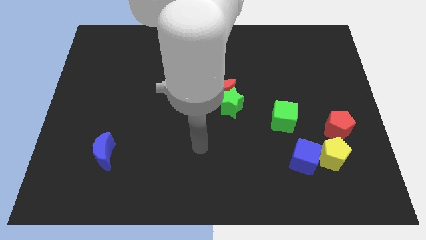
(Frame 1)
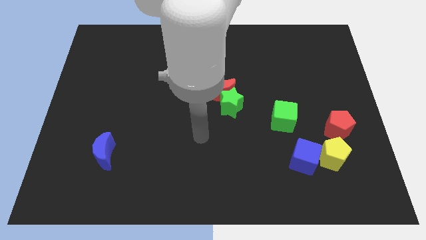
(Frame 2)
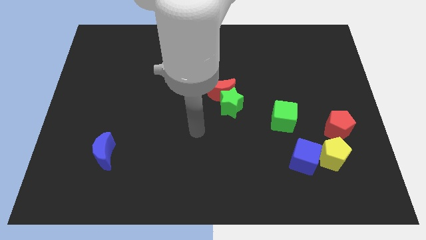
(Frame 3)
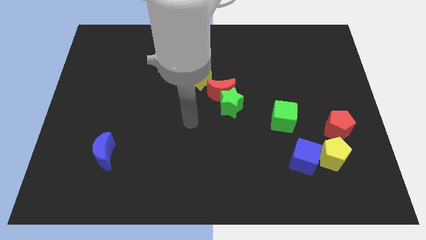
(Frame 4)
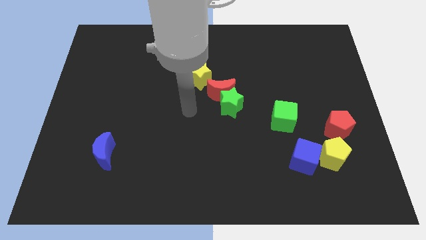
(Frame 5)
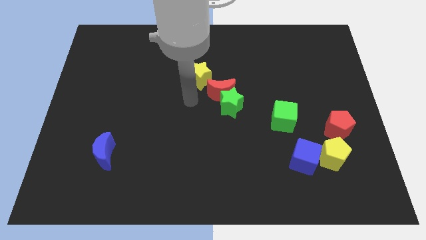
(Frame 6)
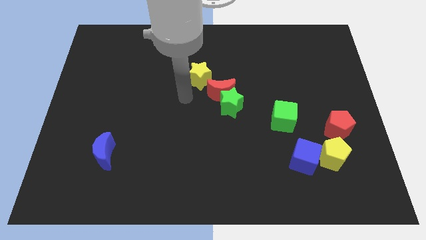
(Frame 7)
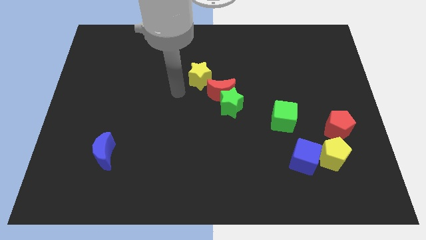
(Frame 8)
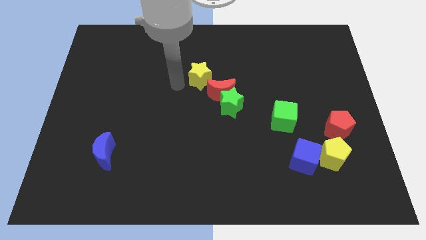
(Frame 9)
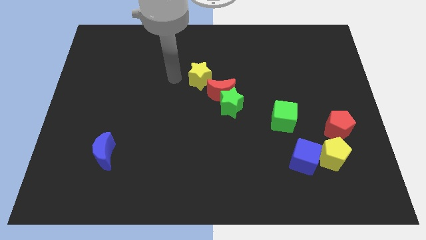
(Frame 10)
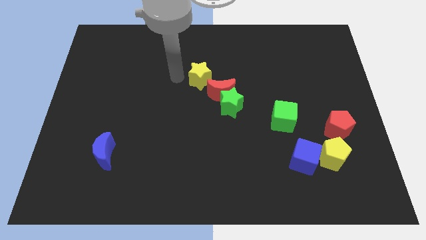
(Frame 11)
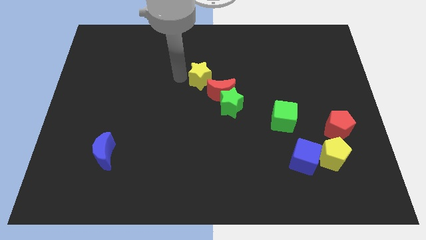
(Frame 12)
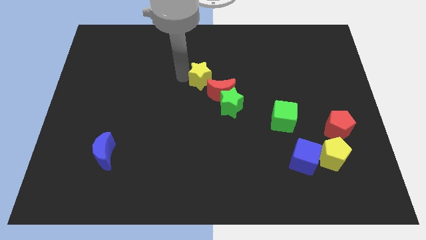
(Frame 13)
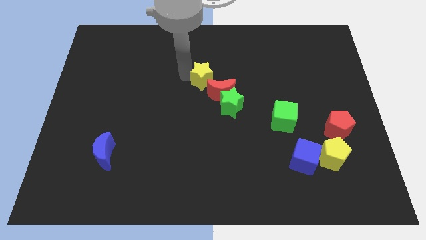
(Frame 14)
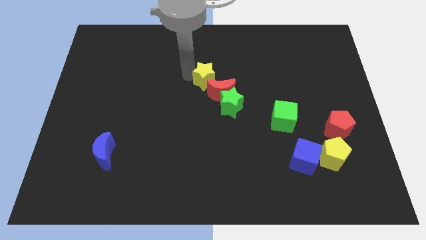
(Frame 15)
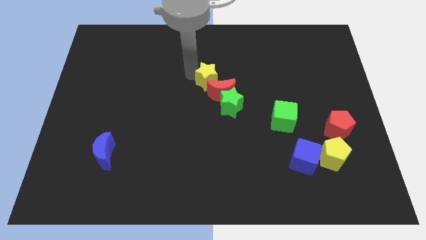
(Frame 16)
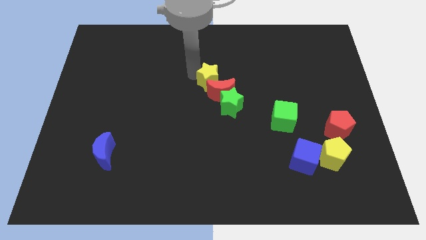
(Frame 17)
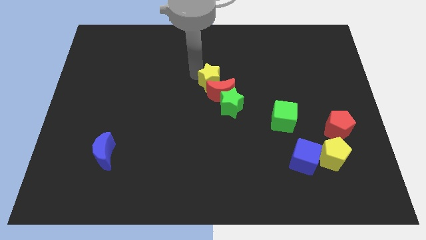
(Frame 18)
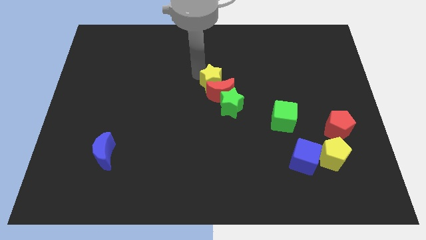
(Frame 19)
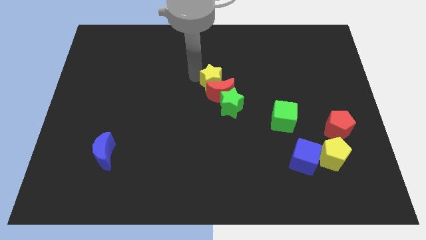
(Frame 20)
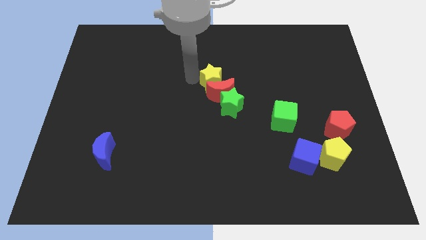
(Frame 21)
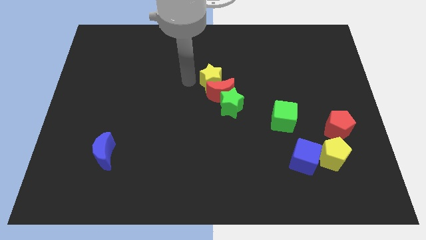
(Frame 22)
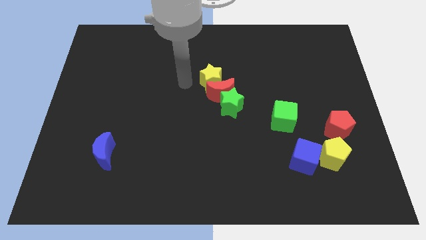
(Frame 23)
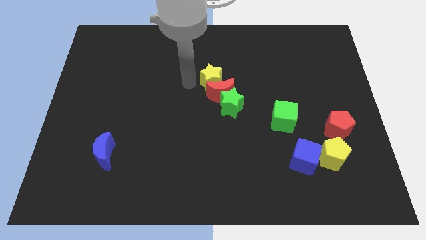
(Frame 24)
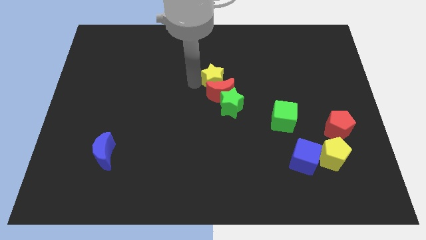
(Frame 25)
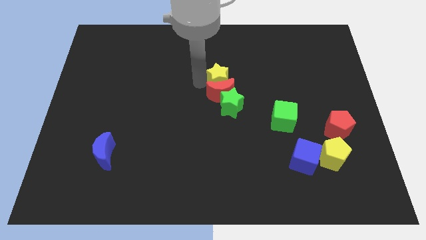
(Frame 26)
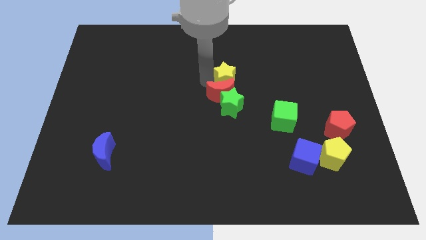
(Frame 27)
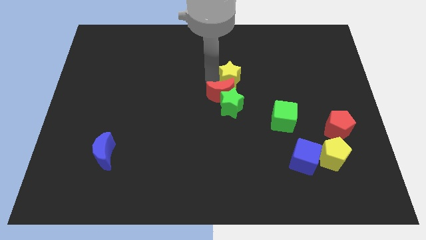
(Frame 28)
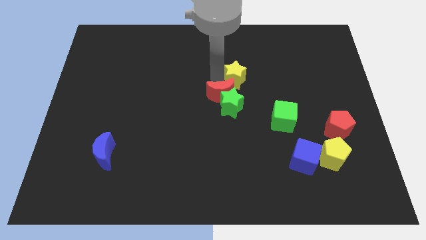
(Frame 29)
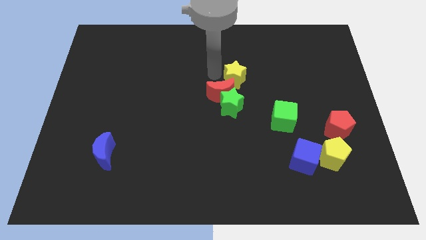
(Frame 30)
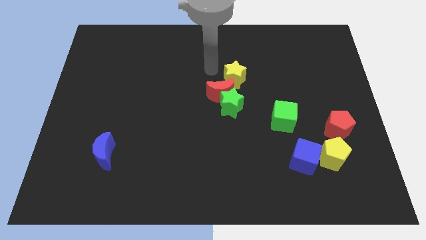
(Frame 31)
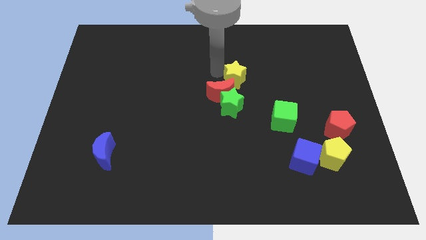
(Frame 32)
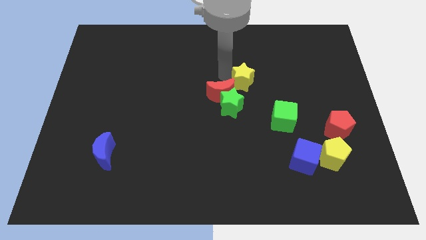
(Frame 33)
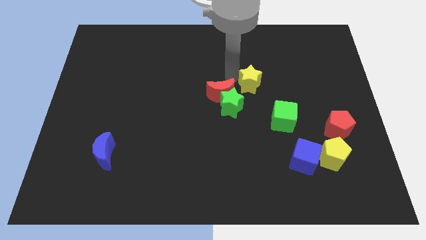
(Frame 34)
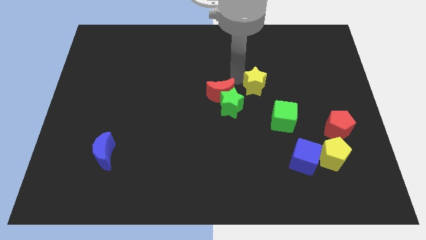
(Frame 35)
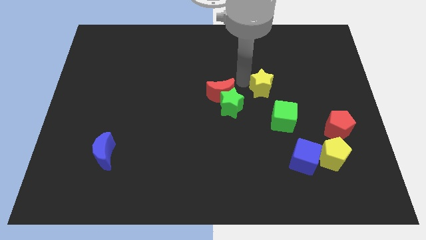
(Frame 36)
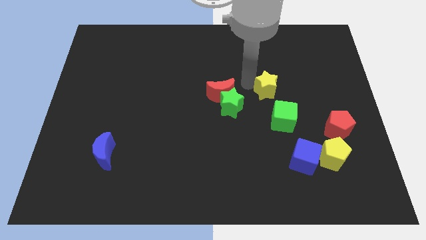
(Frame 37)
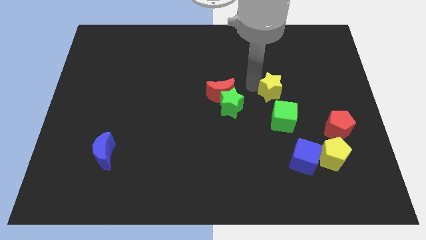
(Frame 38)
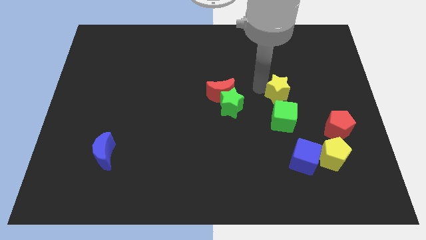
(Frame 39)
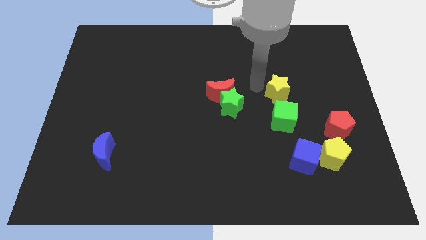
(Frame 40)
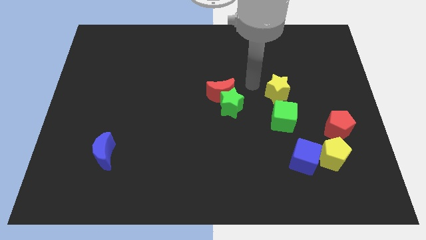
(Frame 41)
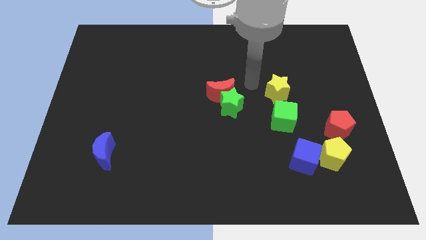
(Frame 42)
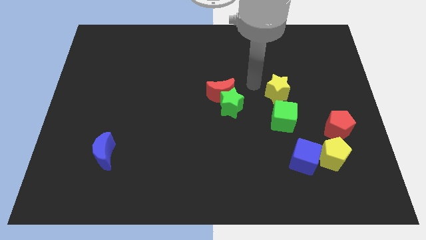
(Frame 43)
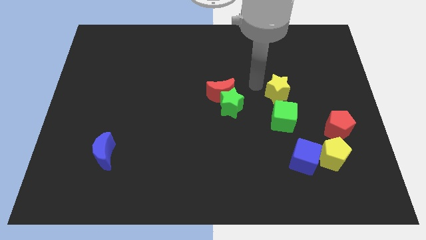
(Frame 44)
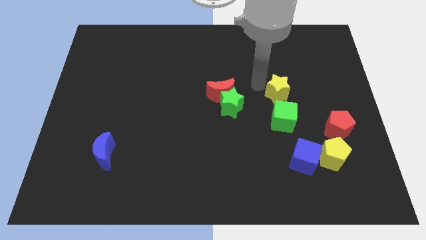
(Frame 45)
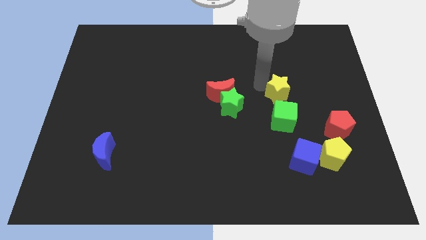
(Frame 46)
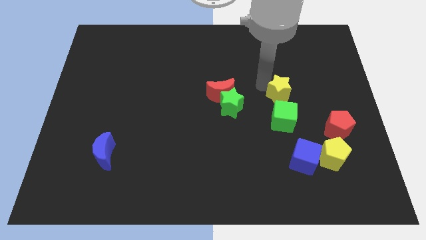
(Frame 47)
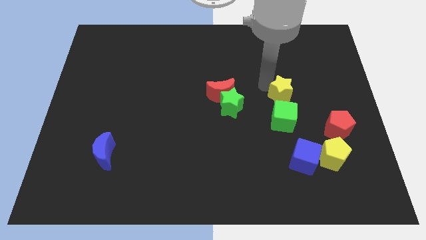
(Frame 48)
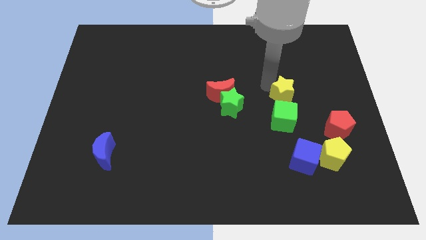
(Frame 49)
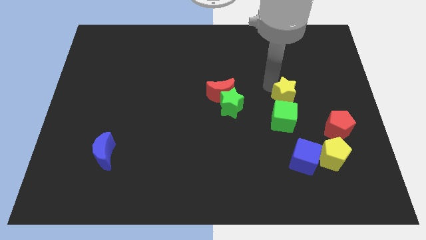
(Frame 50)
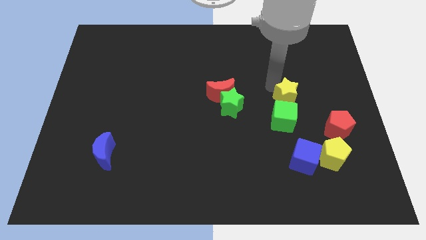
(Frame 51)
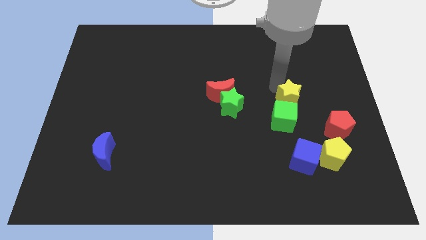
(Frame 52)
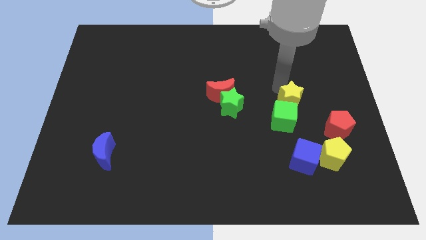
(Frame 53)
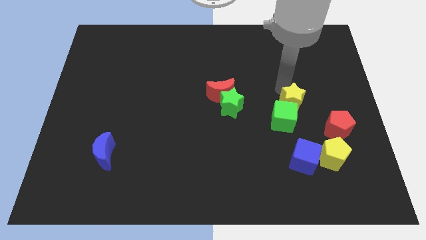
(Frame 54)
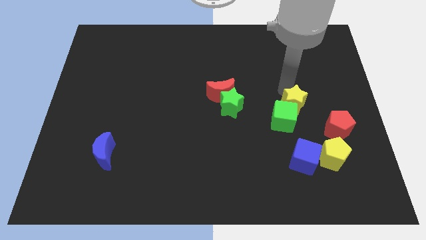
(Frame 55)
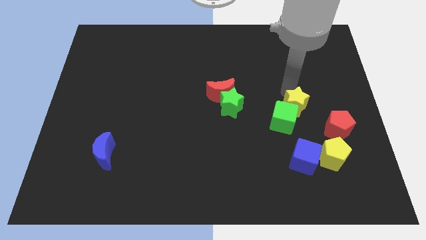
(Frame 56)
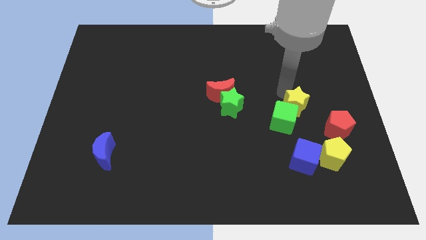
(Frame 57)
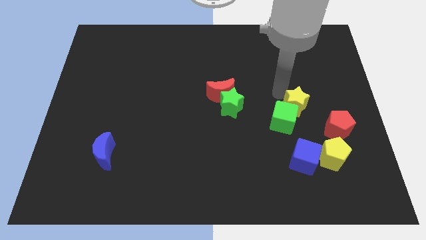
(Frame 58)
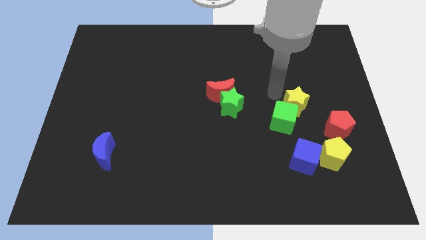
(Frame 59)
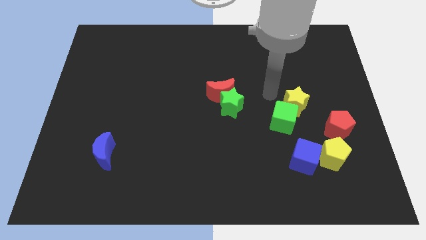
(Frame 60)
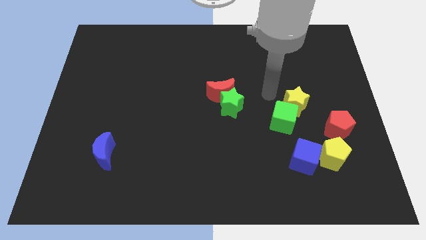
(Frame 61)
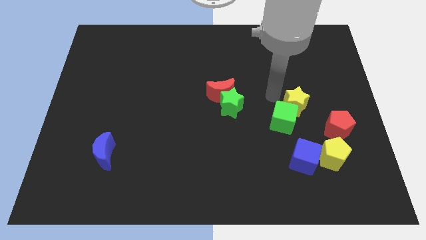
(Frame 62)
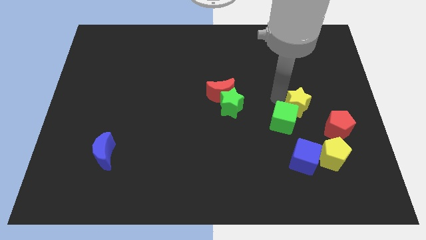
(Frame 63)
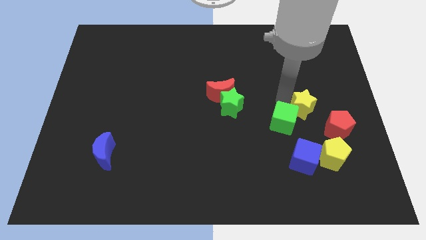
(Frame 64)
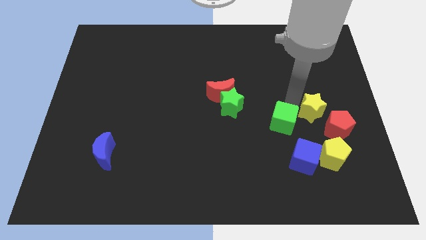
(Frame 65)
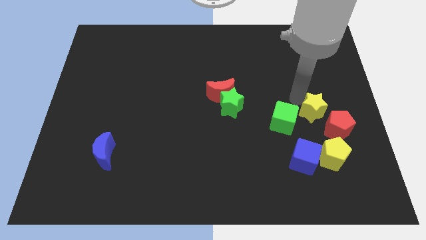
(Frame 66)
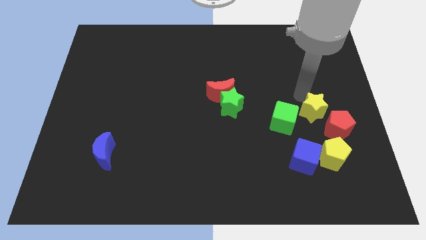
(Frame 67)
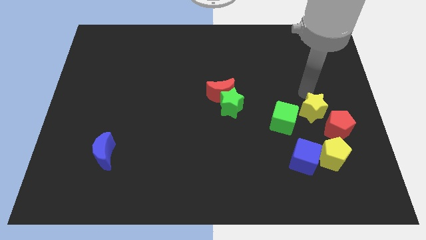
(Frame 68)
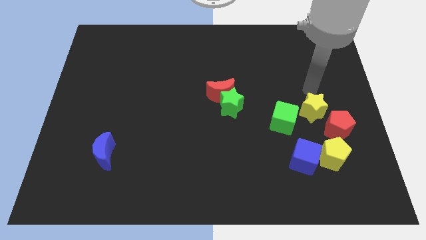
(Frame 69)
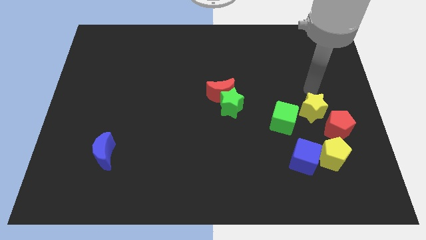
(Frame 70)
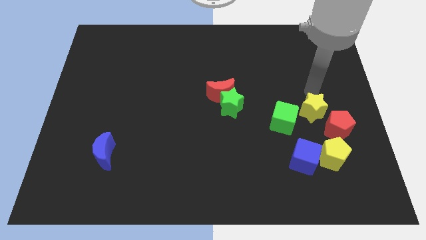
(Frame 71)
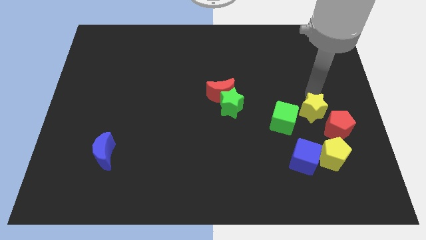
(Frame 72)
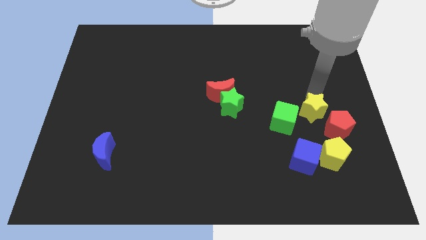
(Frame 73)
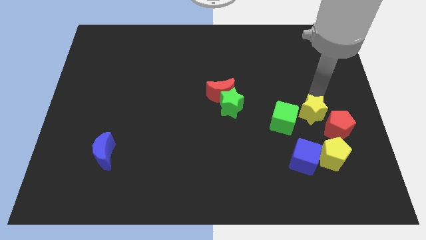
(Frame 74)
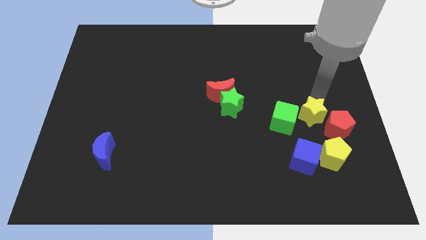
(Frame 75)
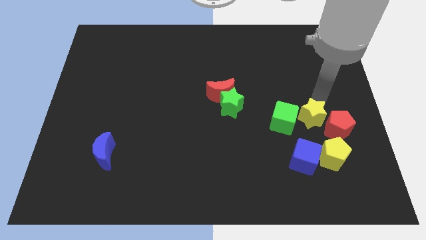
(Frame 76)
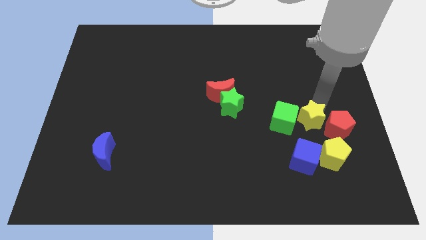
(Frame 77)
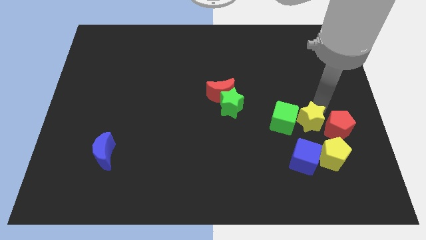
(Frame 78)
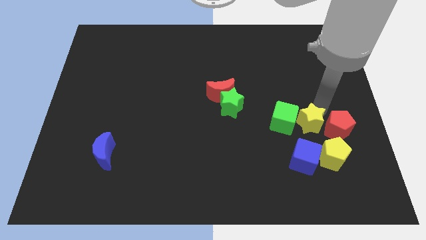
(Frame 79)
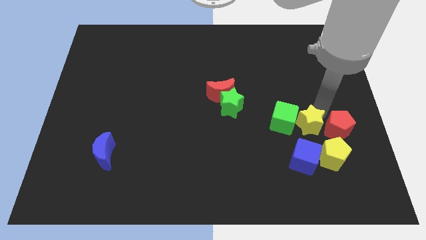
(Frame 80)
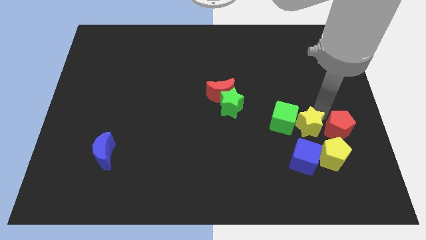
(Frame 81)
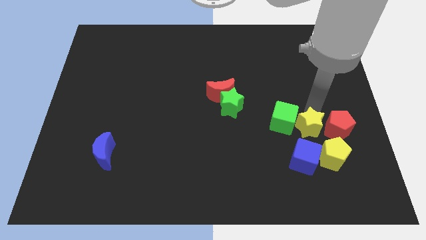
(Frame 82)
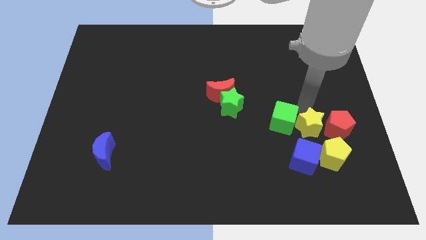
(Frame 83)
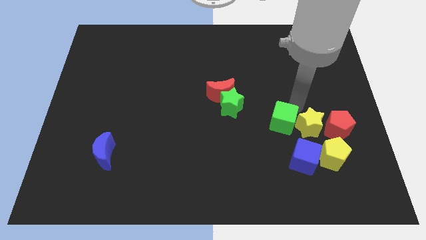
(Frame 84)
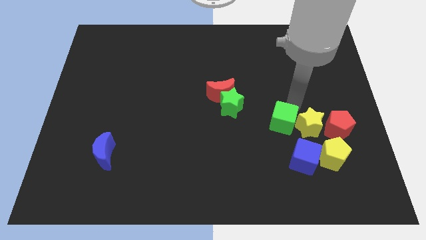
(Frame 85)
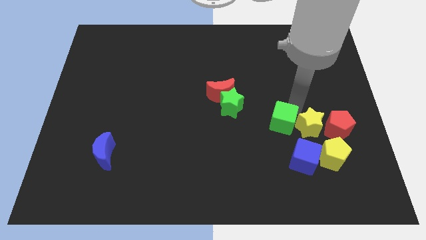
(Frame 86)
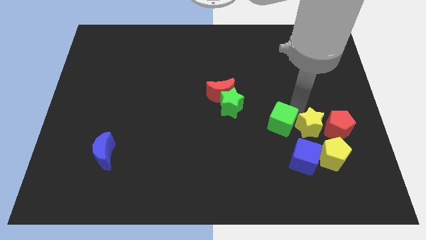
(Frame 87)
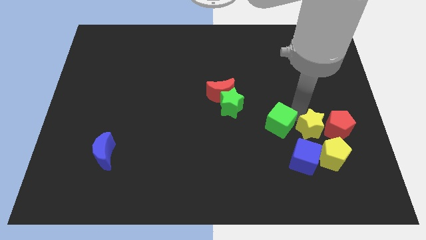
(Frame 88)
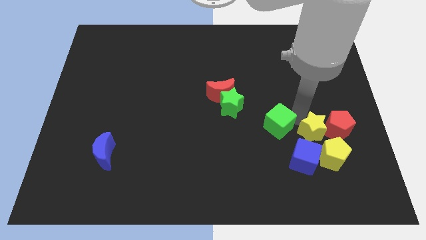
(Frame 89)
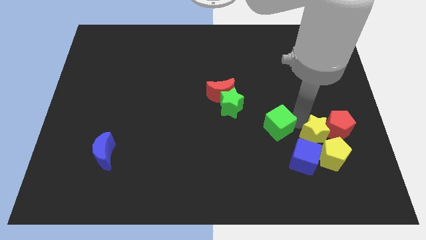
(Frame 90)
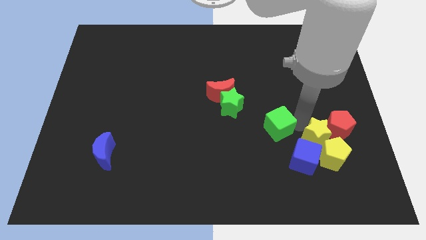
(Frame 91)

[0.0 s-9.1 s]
push the yellow star next to the yellow pentagon
